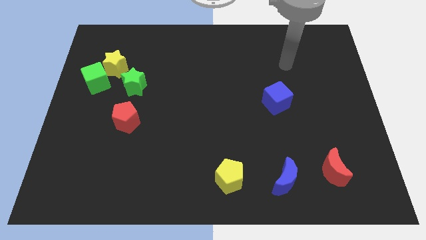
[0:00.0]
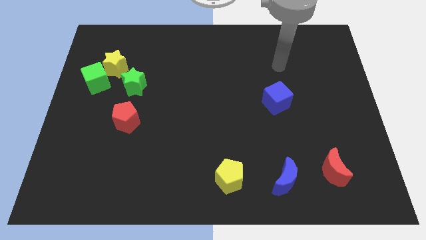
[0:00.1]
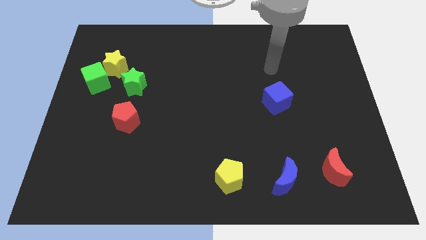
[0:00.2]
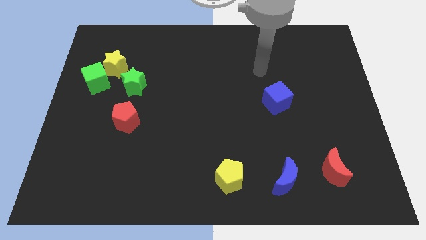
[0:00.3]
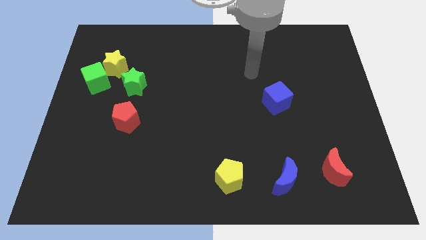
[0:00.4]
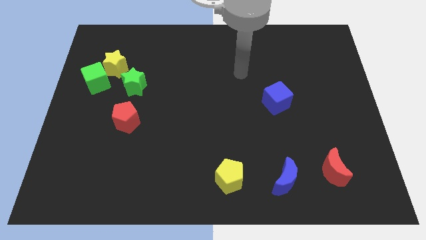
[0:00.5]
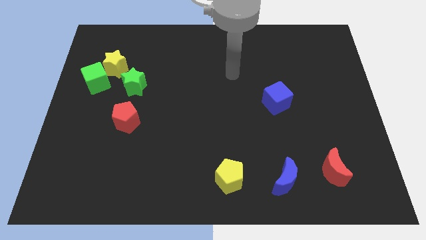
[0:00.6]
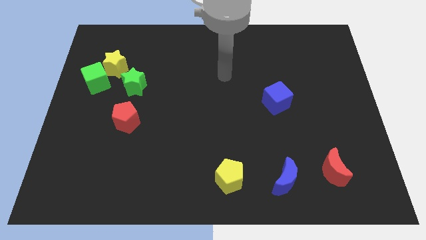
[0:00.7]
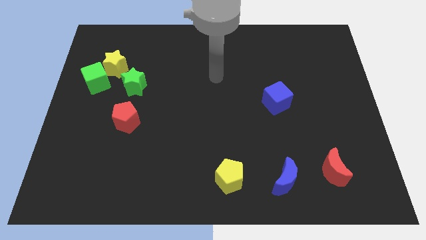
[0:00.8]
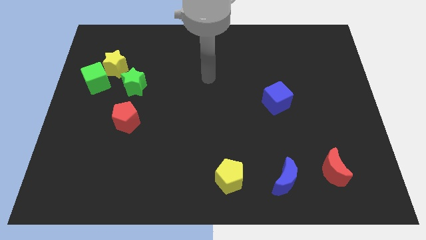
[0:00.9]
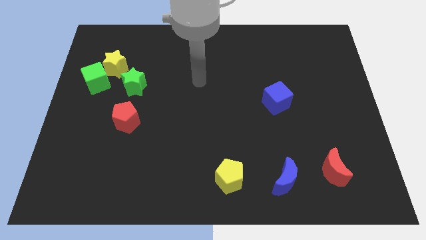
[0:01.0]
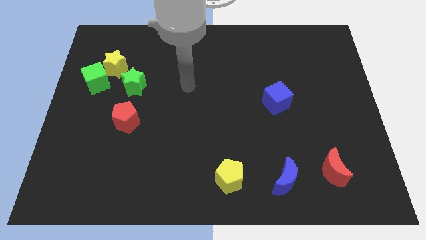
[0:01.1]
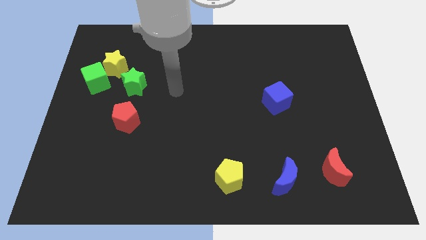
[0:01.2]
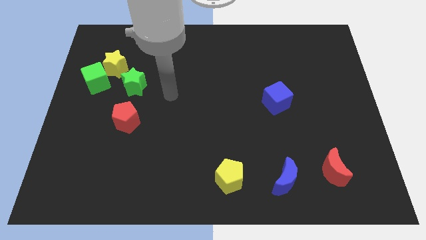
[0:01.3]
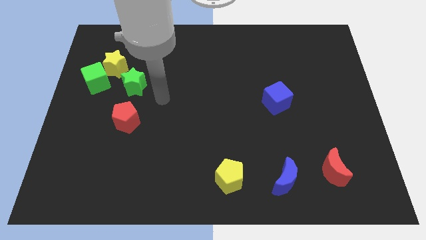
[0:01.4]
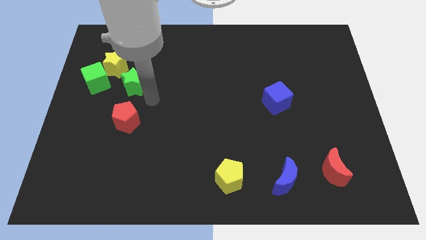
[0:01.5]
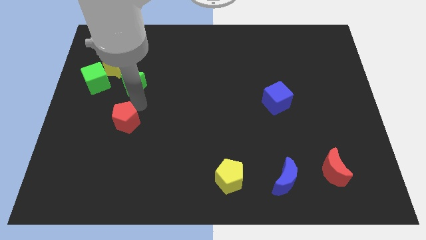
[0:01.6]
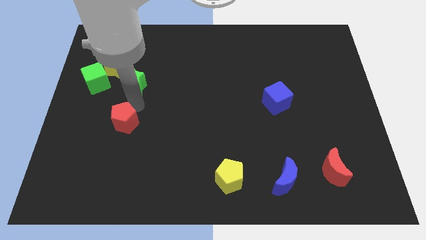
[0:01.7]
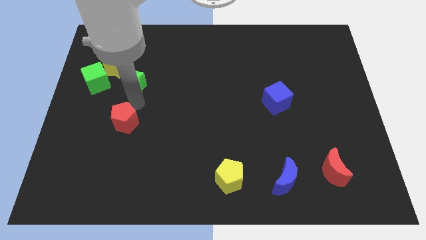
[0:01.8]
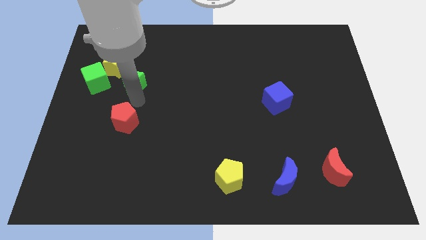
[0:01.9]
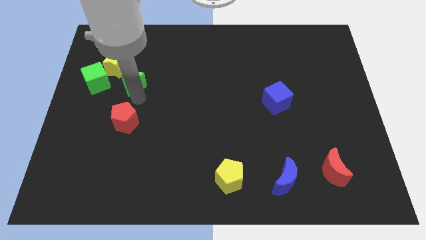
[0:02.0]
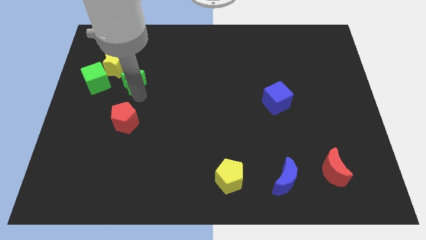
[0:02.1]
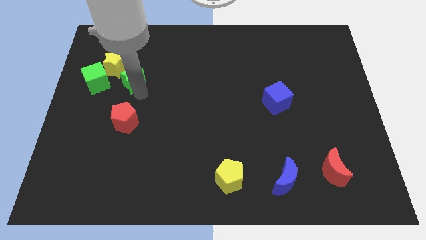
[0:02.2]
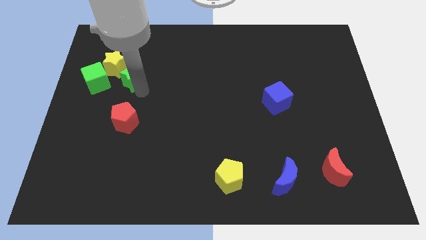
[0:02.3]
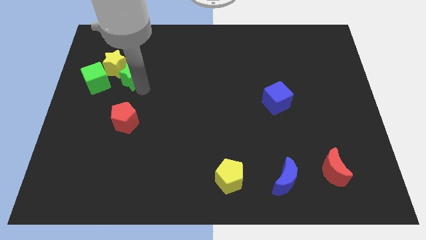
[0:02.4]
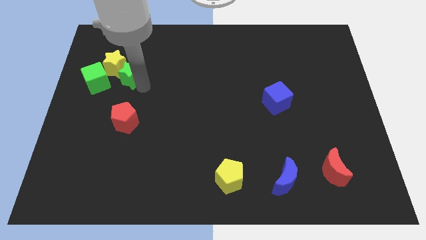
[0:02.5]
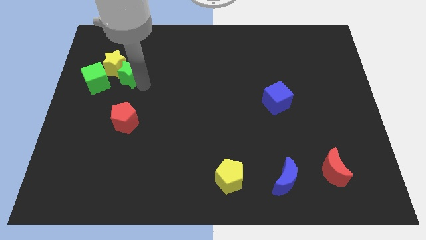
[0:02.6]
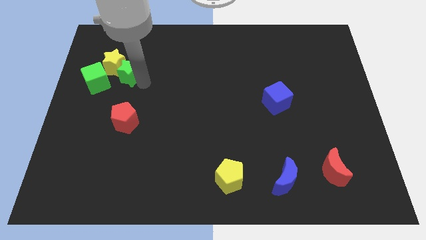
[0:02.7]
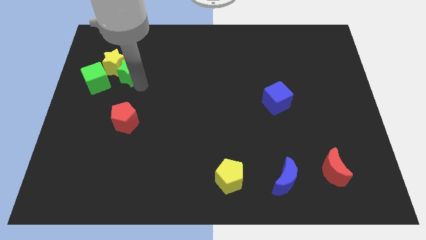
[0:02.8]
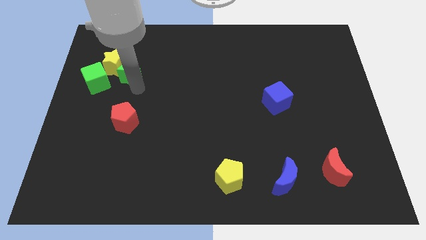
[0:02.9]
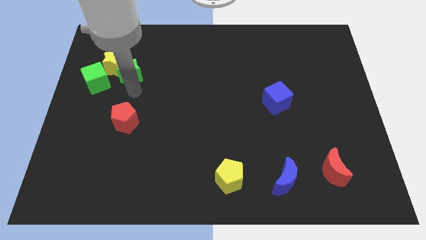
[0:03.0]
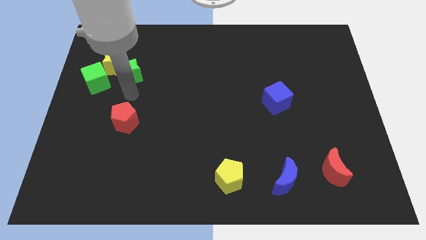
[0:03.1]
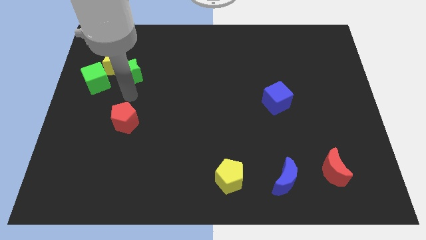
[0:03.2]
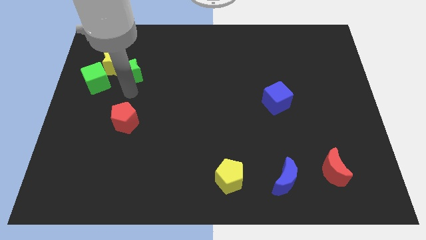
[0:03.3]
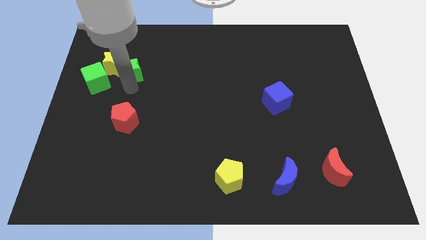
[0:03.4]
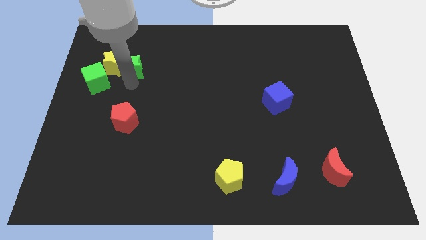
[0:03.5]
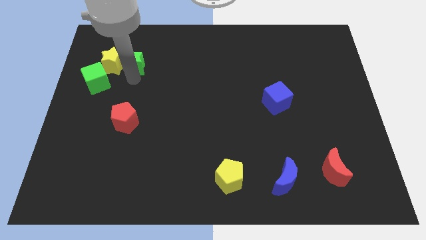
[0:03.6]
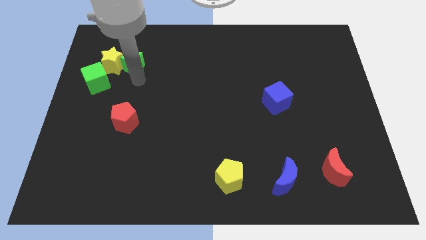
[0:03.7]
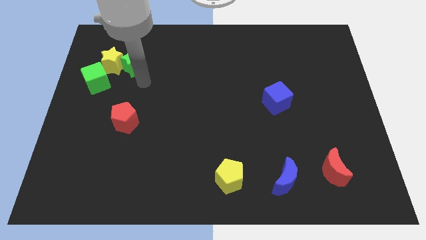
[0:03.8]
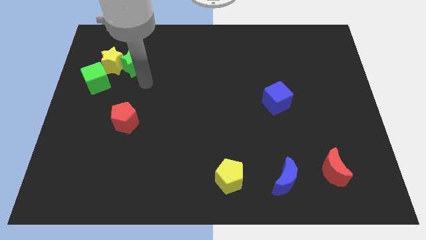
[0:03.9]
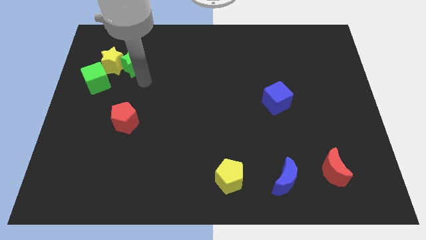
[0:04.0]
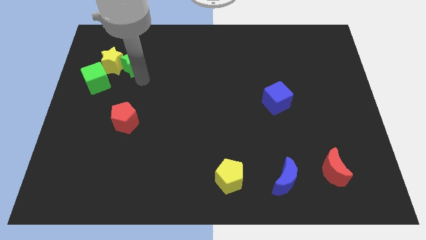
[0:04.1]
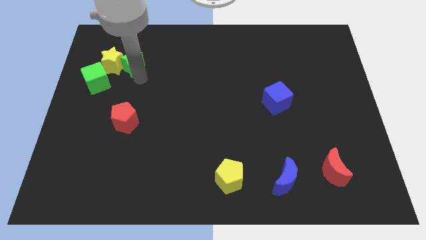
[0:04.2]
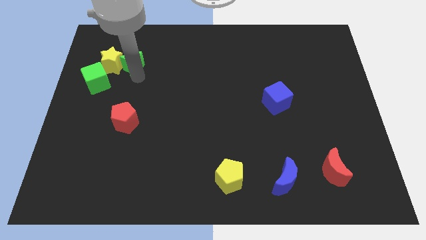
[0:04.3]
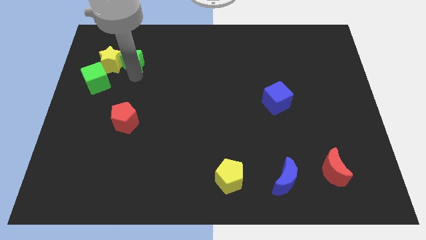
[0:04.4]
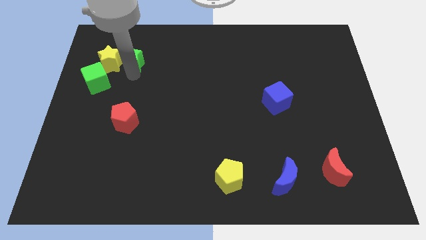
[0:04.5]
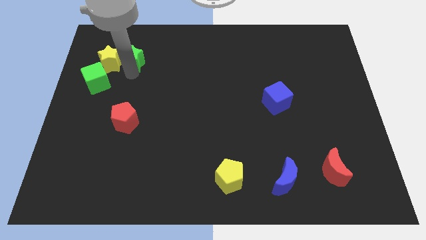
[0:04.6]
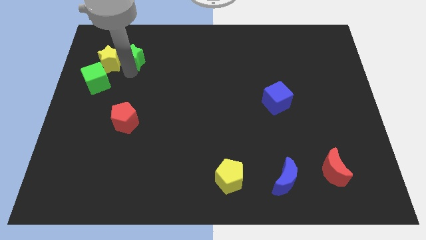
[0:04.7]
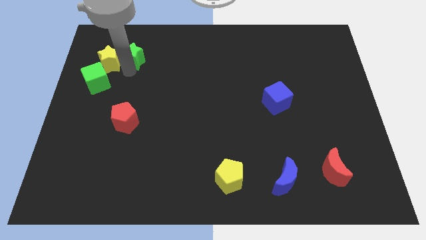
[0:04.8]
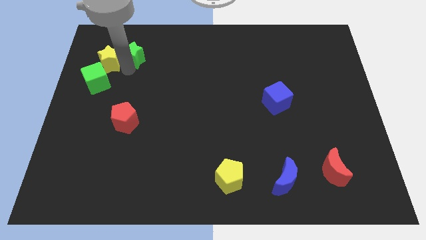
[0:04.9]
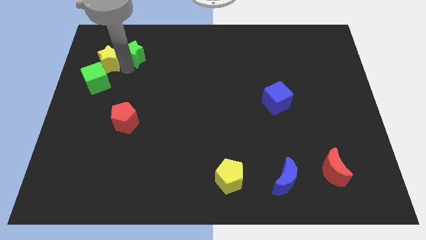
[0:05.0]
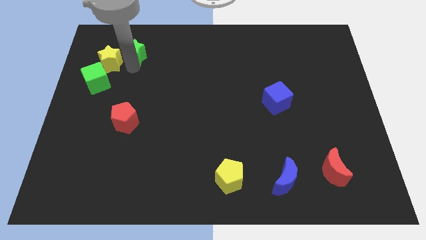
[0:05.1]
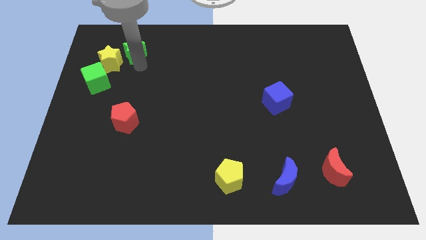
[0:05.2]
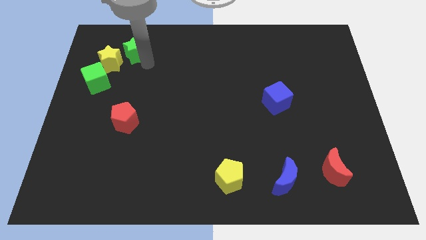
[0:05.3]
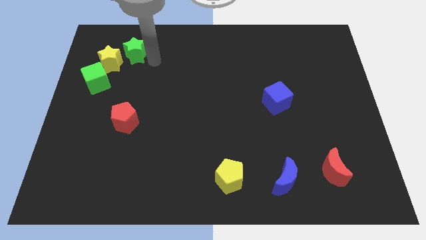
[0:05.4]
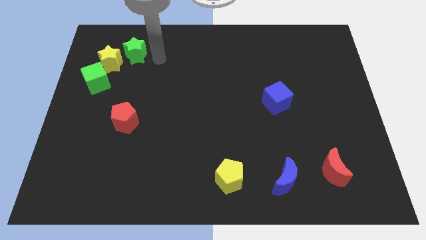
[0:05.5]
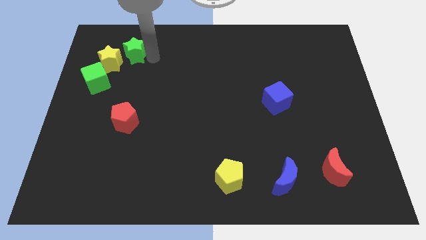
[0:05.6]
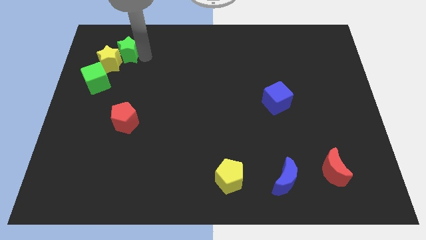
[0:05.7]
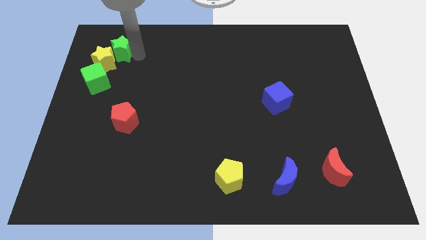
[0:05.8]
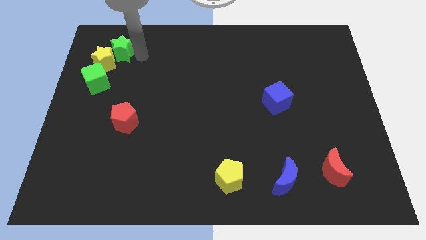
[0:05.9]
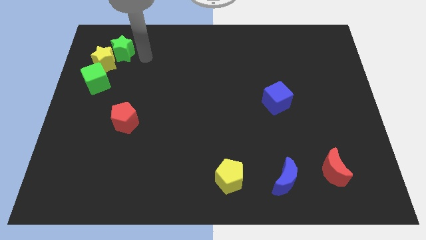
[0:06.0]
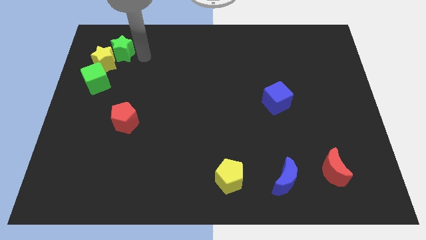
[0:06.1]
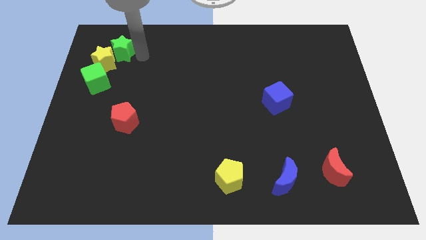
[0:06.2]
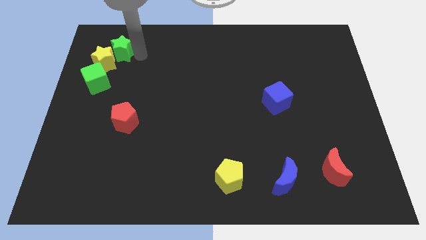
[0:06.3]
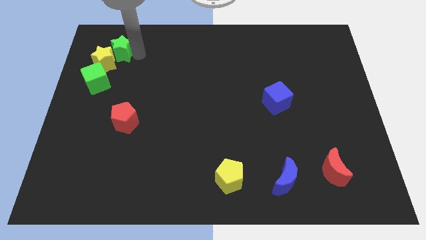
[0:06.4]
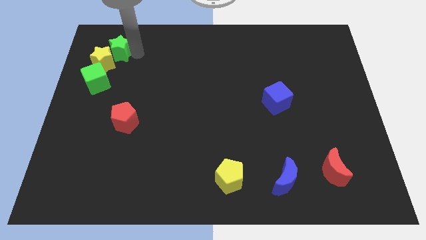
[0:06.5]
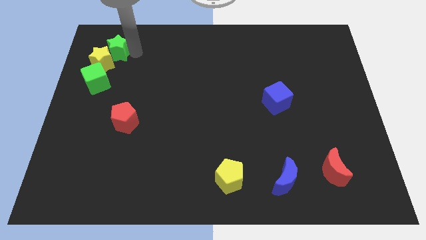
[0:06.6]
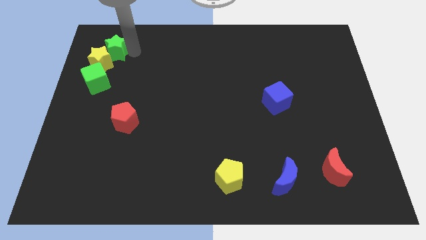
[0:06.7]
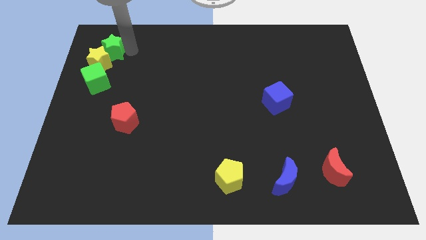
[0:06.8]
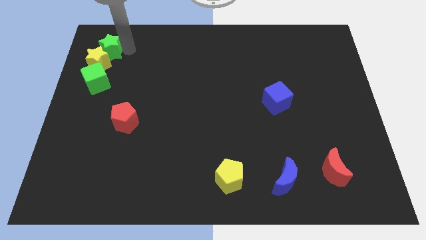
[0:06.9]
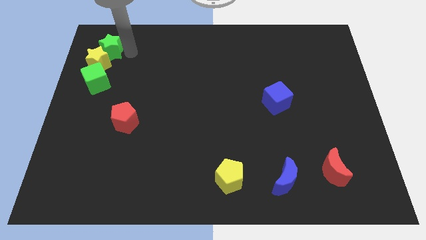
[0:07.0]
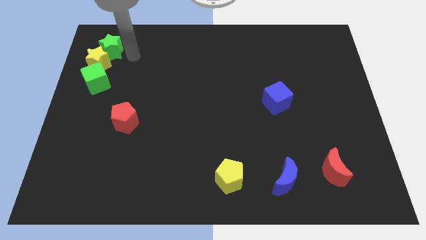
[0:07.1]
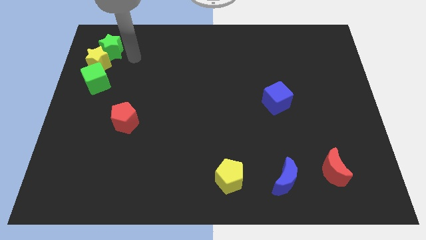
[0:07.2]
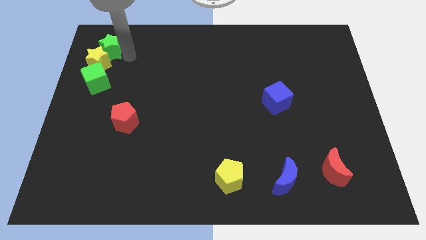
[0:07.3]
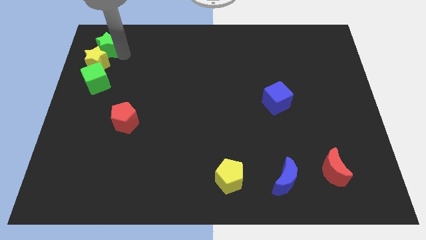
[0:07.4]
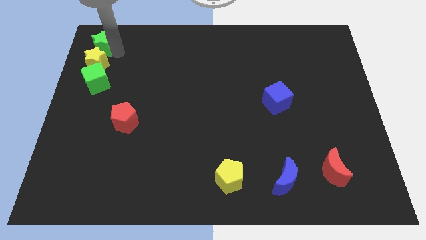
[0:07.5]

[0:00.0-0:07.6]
slide the green star to the top left
